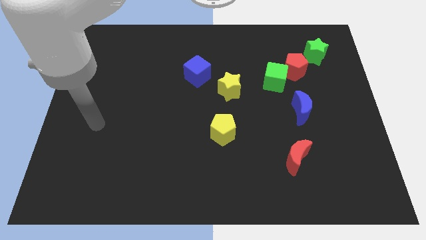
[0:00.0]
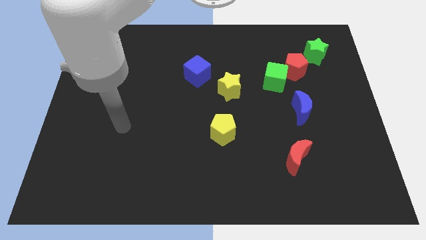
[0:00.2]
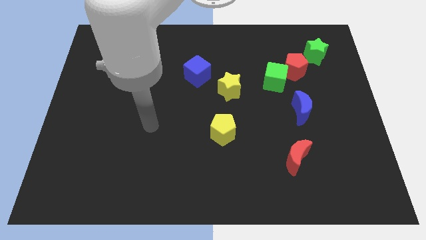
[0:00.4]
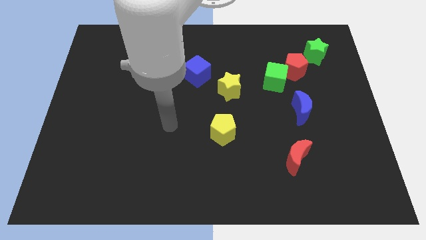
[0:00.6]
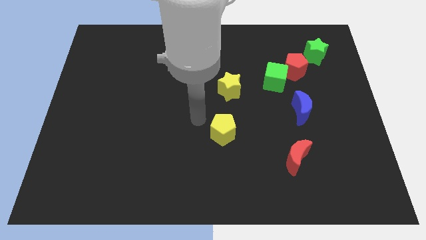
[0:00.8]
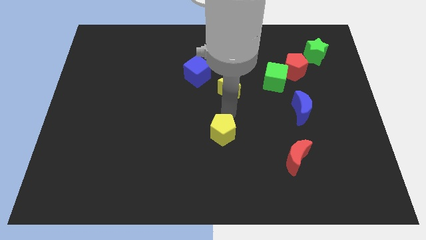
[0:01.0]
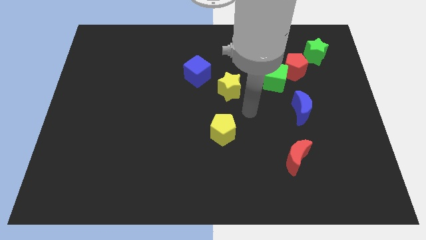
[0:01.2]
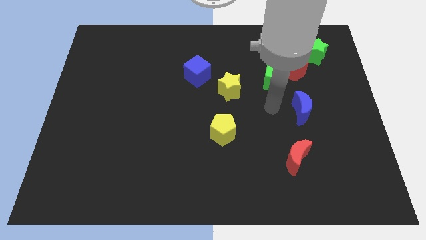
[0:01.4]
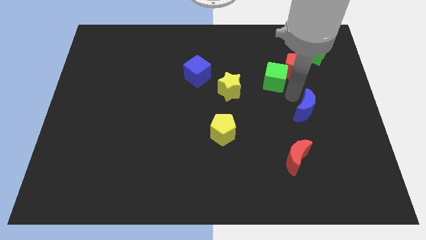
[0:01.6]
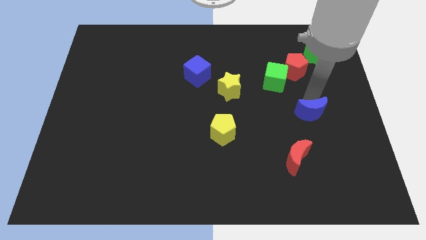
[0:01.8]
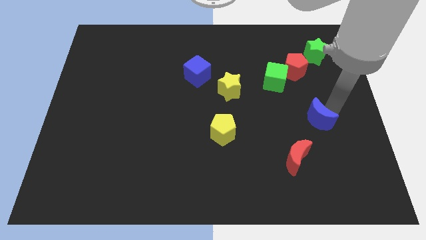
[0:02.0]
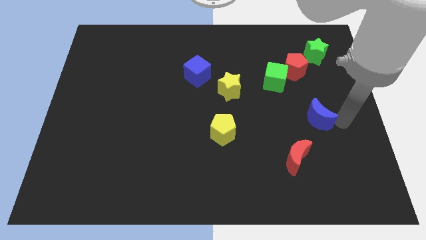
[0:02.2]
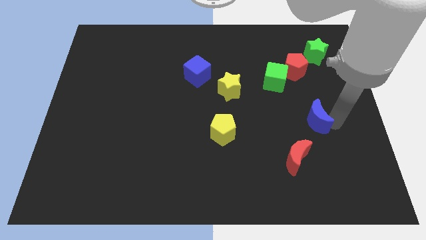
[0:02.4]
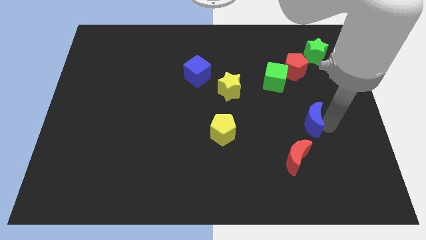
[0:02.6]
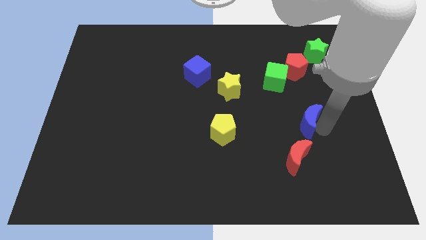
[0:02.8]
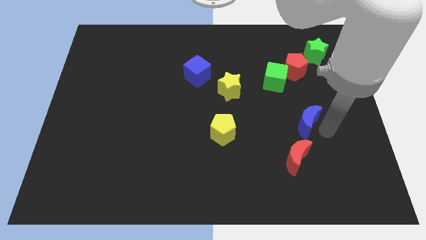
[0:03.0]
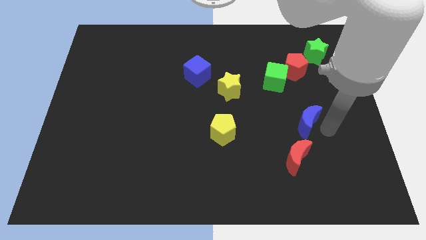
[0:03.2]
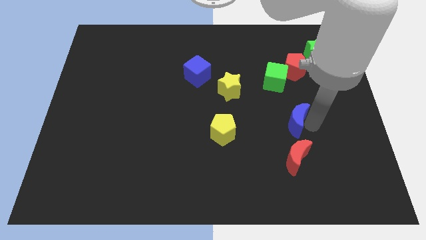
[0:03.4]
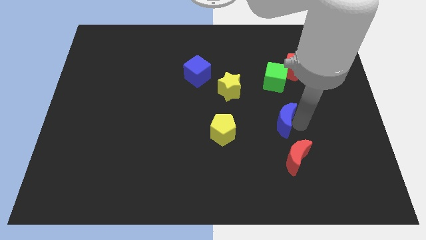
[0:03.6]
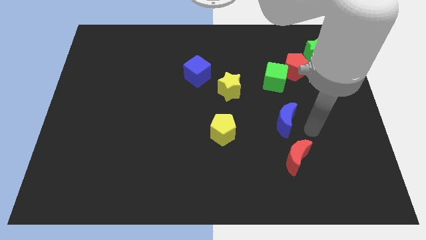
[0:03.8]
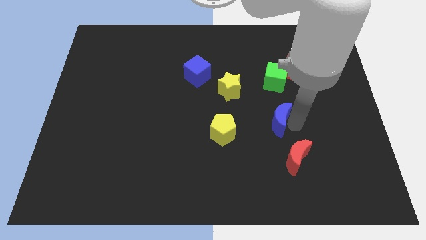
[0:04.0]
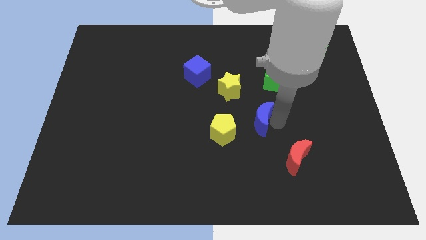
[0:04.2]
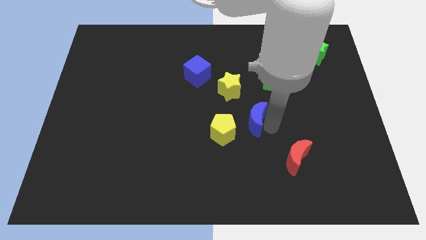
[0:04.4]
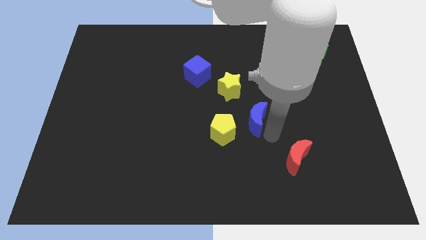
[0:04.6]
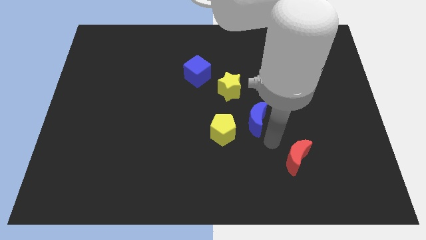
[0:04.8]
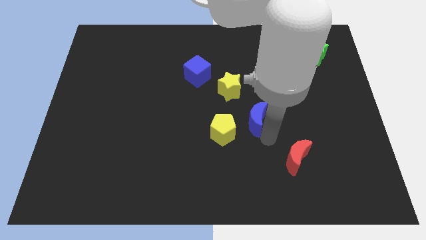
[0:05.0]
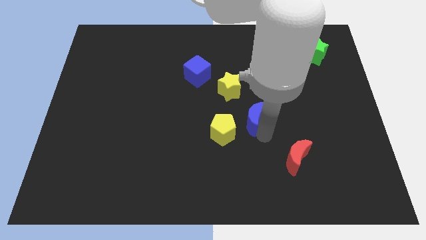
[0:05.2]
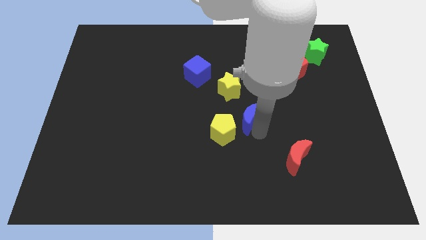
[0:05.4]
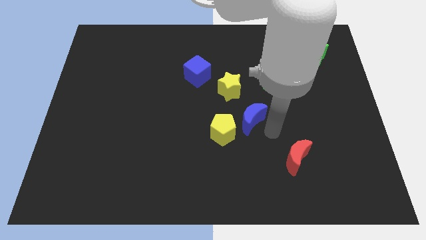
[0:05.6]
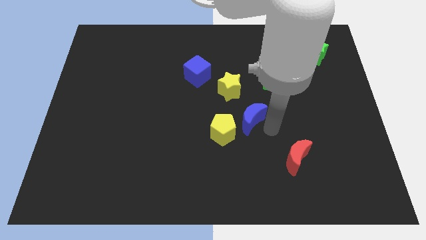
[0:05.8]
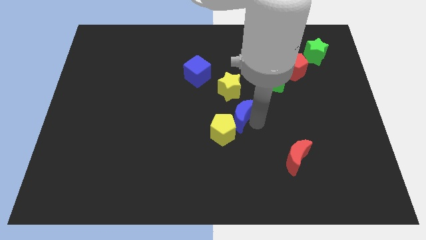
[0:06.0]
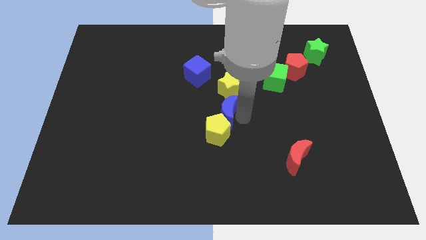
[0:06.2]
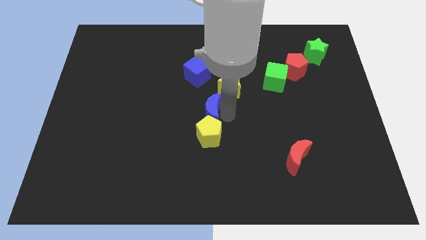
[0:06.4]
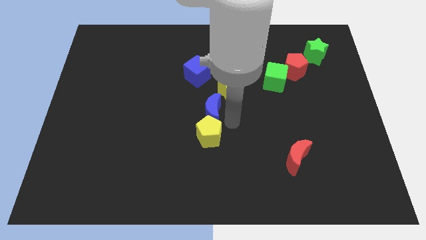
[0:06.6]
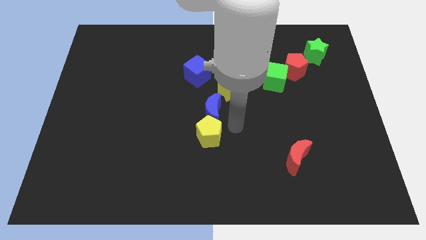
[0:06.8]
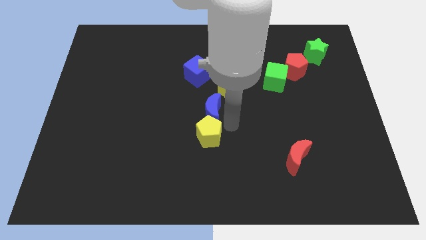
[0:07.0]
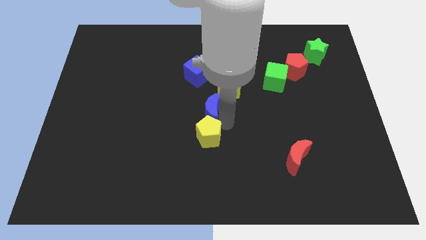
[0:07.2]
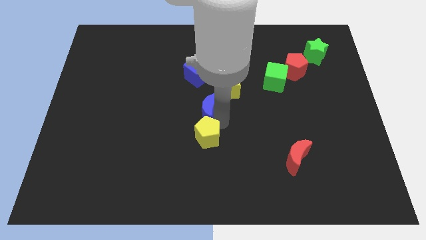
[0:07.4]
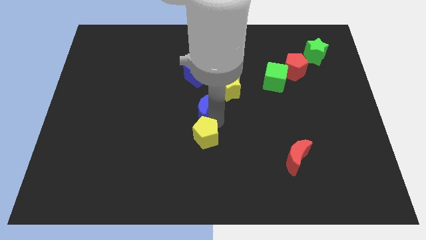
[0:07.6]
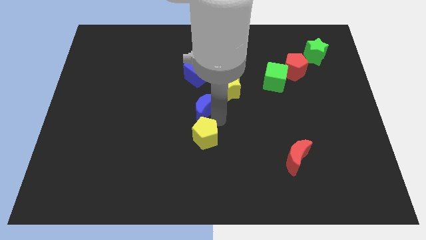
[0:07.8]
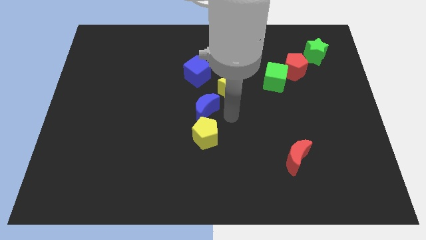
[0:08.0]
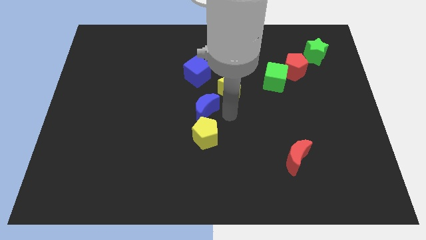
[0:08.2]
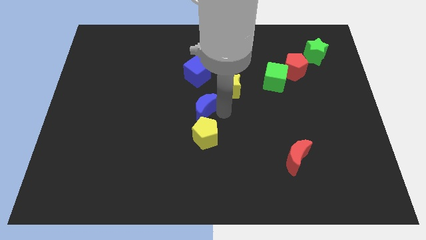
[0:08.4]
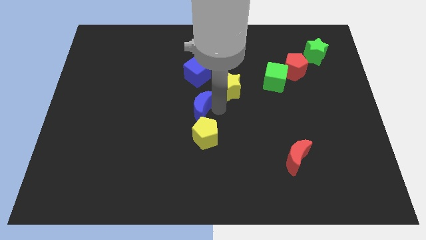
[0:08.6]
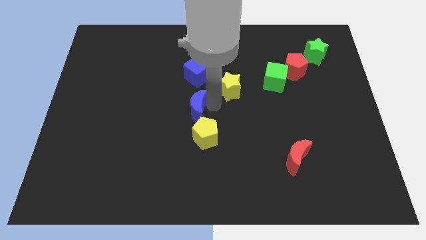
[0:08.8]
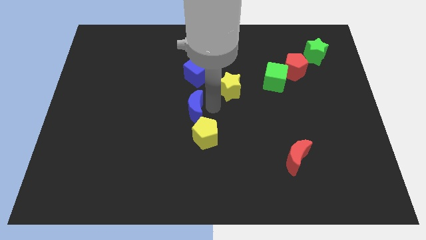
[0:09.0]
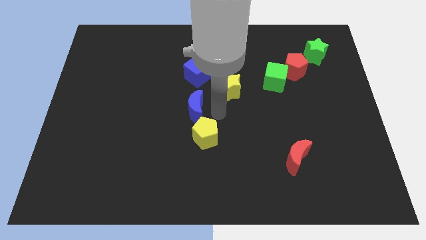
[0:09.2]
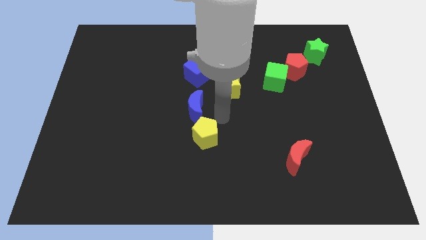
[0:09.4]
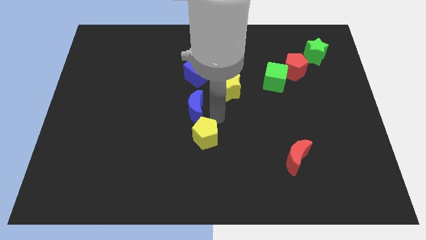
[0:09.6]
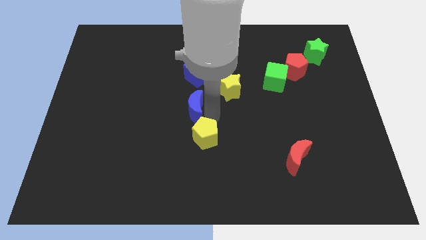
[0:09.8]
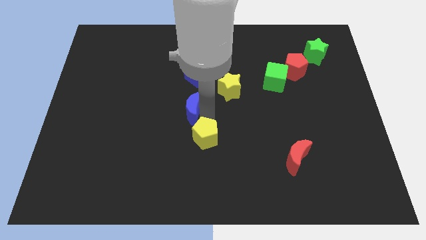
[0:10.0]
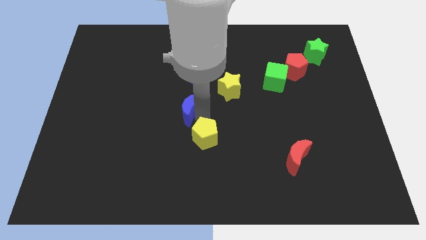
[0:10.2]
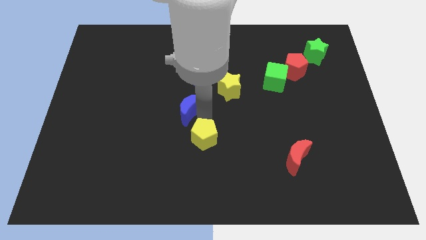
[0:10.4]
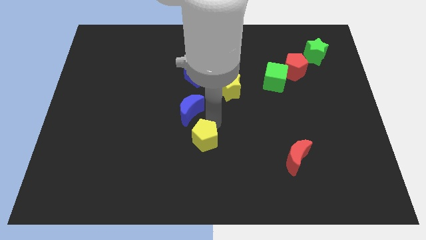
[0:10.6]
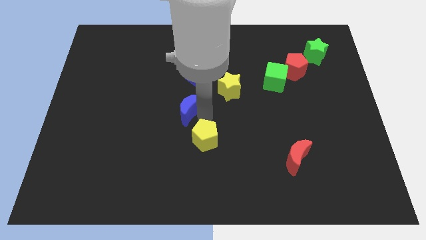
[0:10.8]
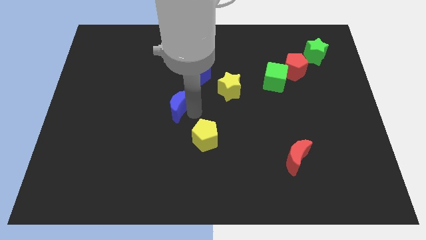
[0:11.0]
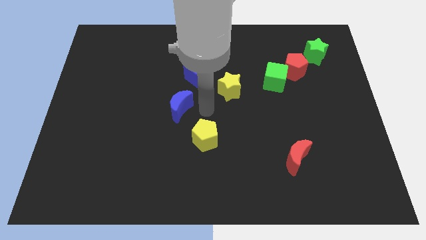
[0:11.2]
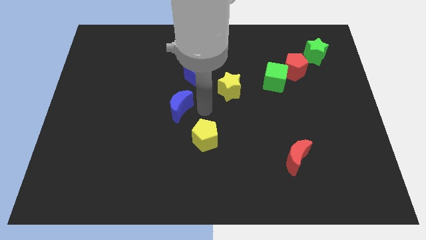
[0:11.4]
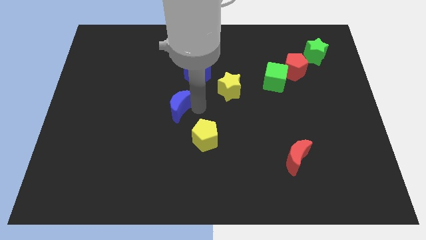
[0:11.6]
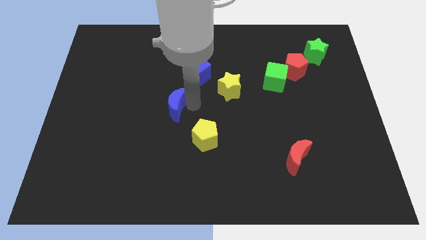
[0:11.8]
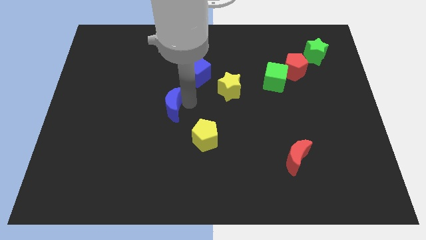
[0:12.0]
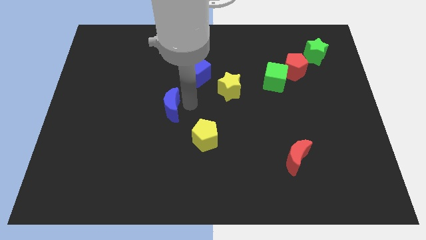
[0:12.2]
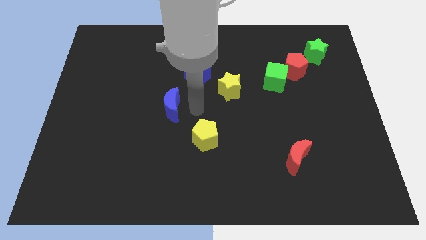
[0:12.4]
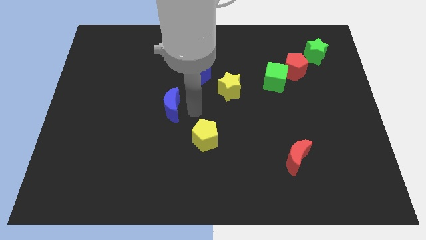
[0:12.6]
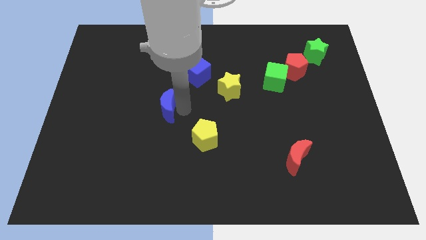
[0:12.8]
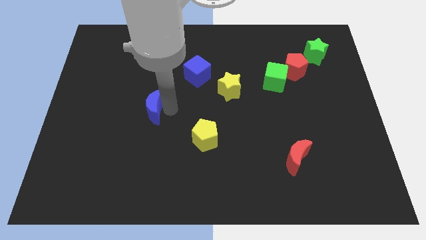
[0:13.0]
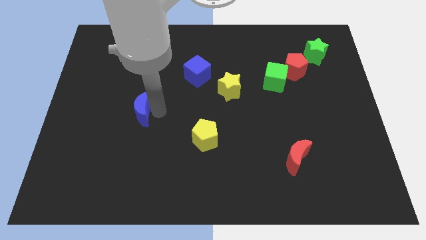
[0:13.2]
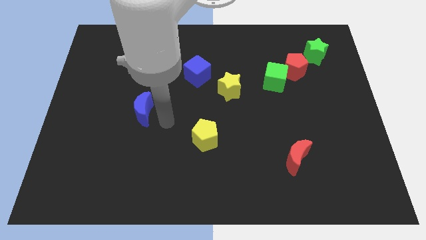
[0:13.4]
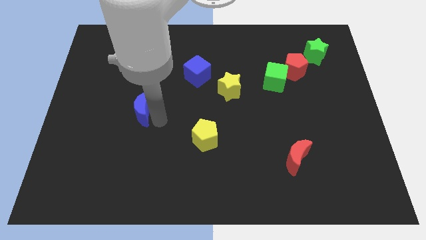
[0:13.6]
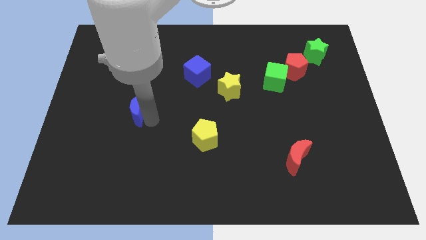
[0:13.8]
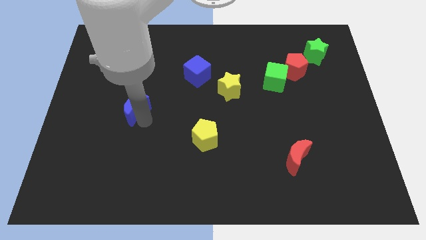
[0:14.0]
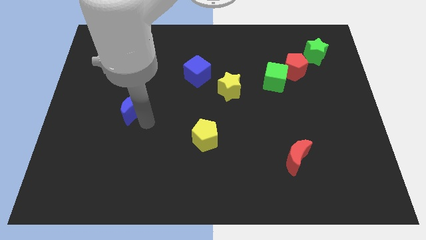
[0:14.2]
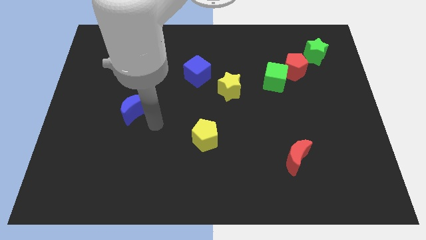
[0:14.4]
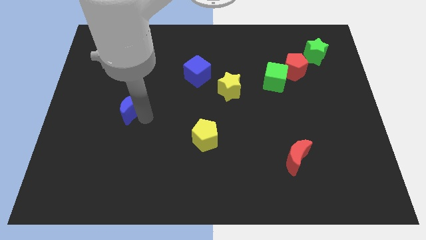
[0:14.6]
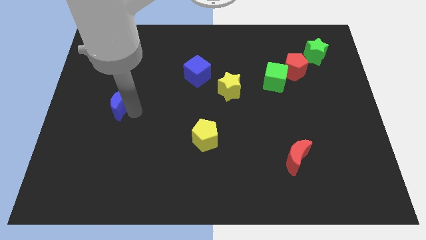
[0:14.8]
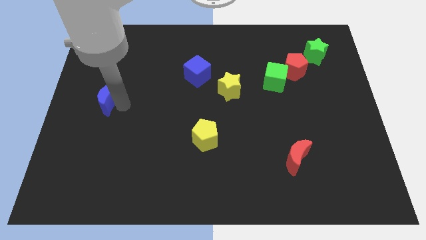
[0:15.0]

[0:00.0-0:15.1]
move the blue moon to the center left
